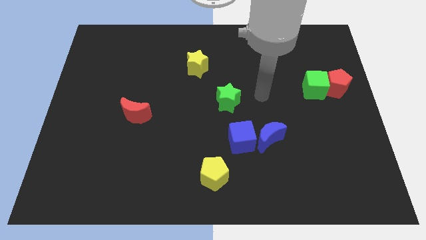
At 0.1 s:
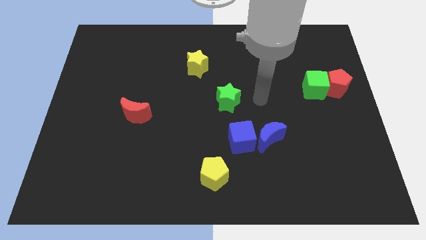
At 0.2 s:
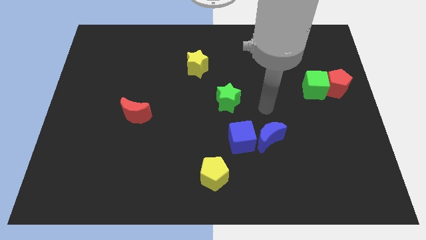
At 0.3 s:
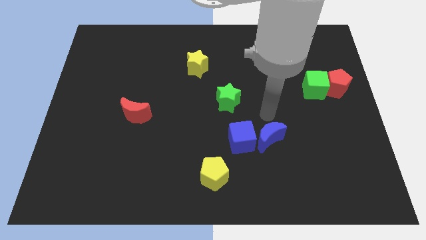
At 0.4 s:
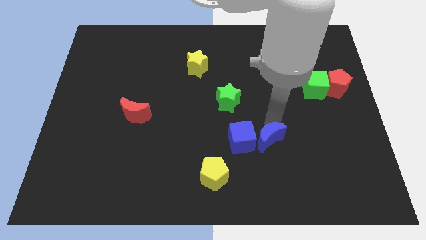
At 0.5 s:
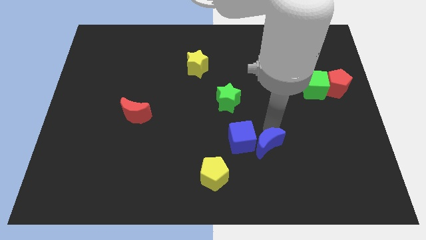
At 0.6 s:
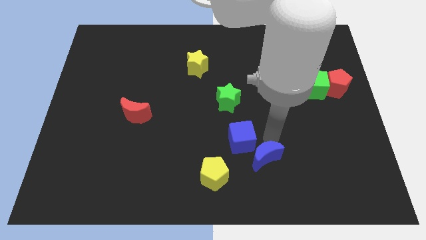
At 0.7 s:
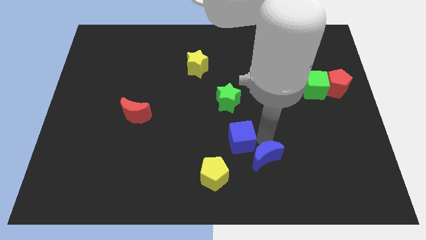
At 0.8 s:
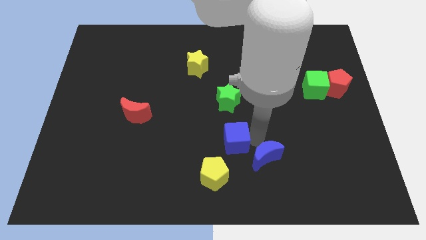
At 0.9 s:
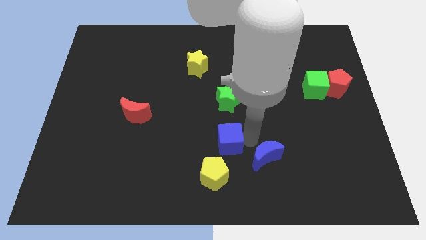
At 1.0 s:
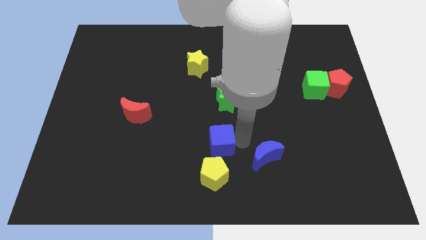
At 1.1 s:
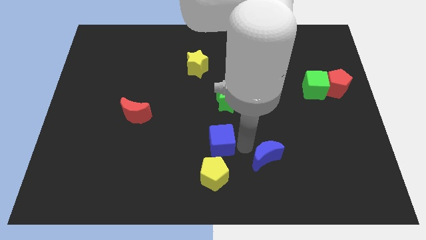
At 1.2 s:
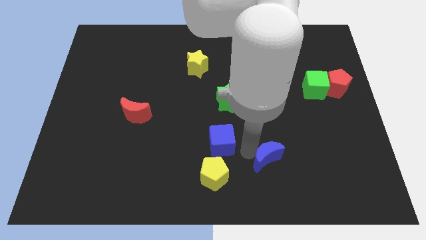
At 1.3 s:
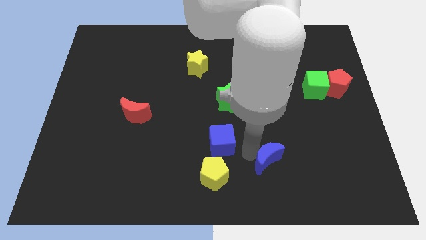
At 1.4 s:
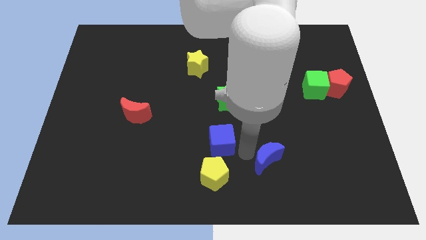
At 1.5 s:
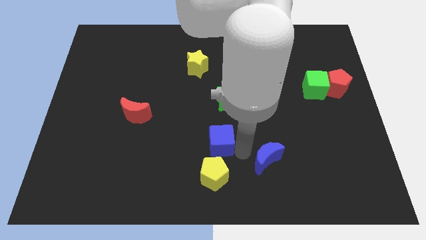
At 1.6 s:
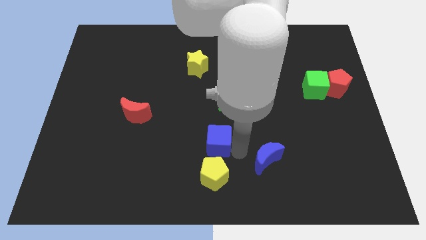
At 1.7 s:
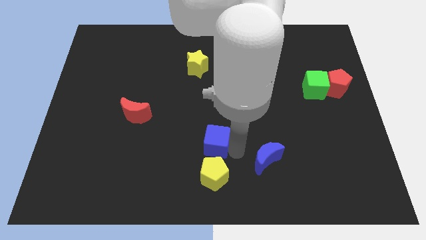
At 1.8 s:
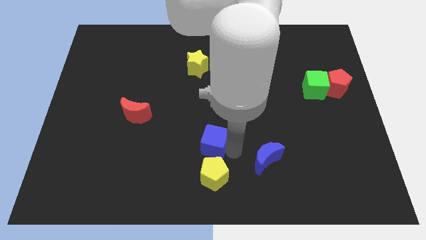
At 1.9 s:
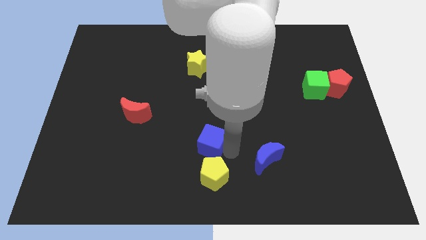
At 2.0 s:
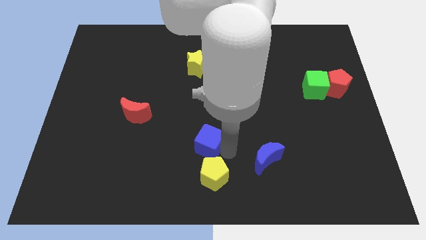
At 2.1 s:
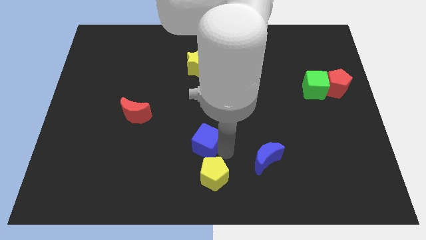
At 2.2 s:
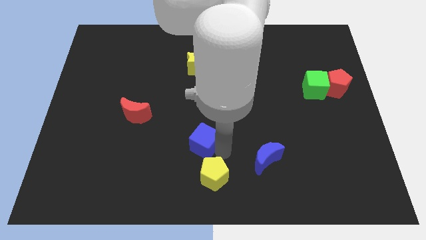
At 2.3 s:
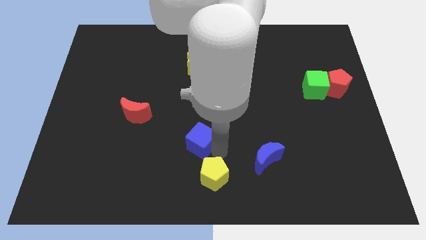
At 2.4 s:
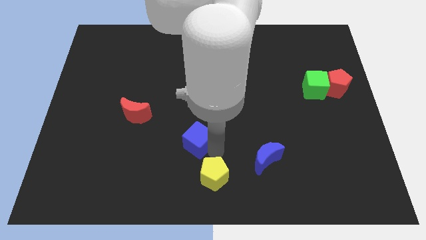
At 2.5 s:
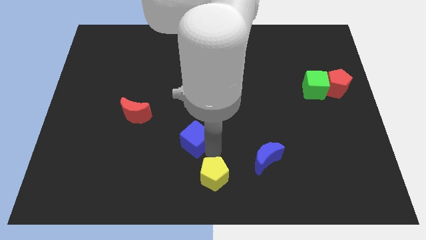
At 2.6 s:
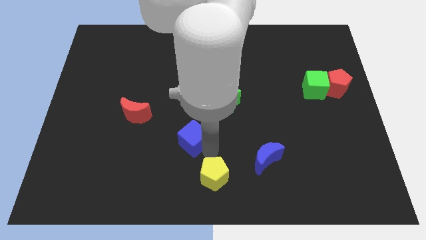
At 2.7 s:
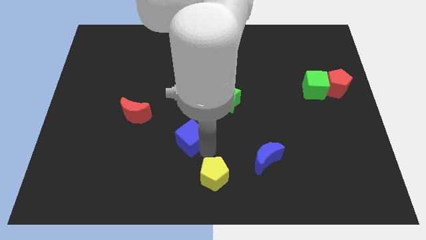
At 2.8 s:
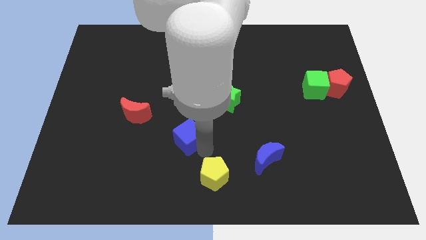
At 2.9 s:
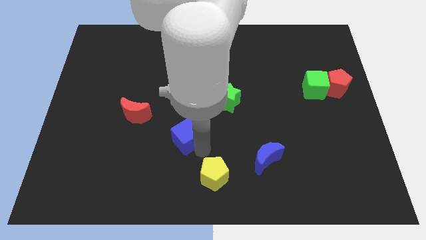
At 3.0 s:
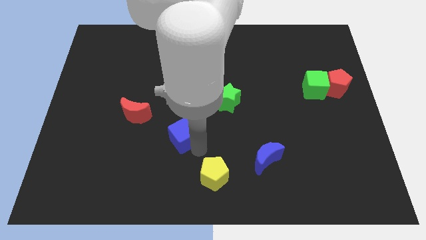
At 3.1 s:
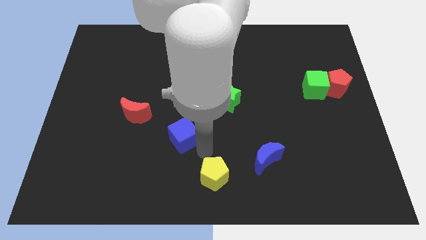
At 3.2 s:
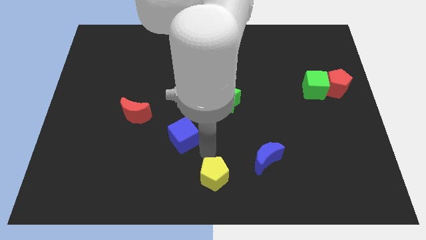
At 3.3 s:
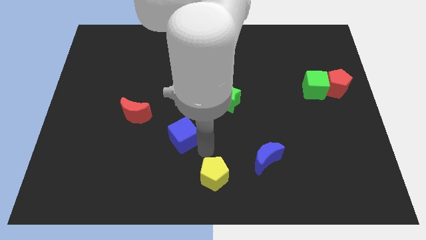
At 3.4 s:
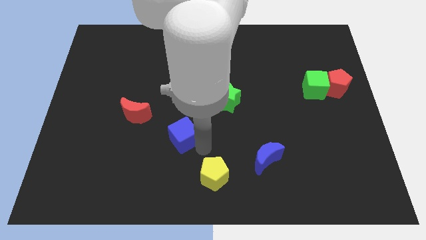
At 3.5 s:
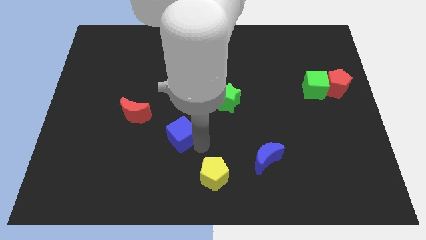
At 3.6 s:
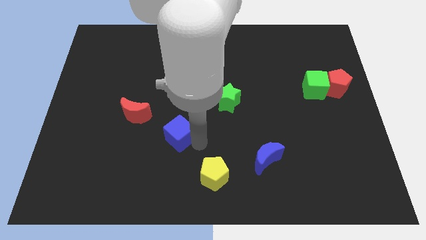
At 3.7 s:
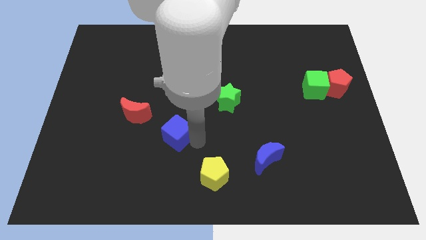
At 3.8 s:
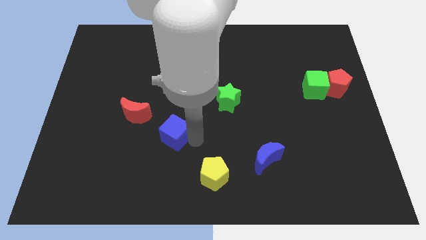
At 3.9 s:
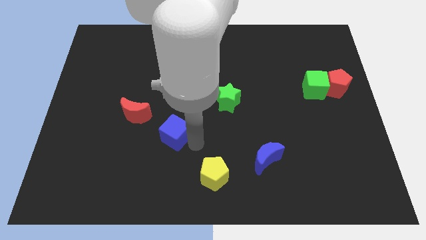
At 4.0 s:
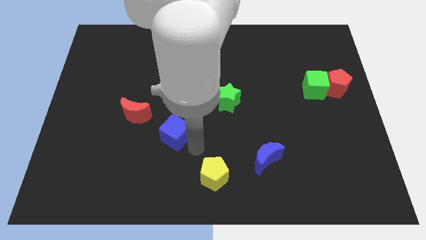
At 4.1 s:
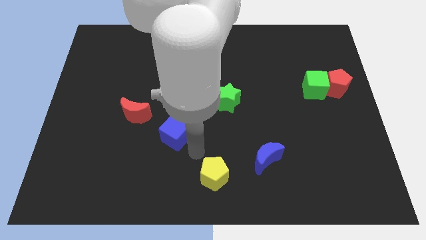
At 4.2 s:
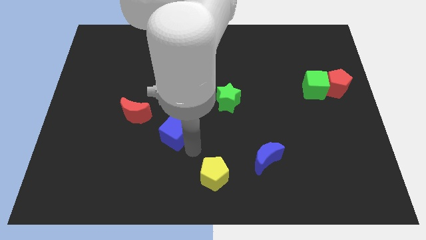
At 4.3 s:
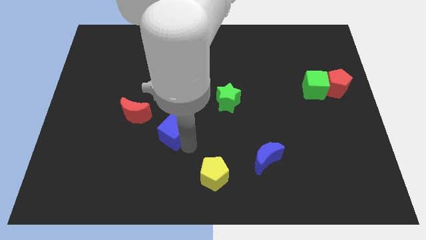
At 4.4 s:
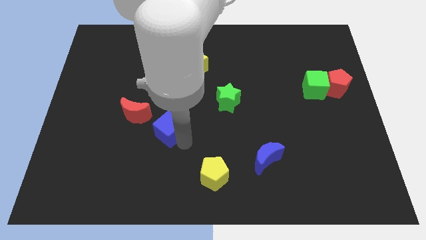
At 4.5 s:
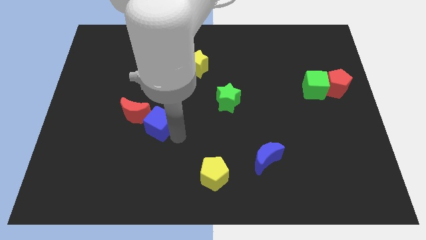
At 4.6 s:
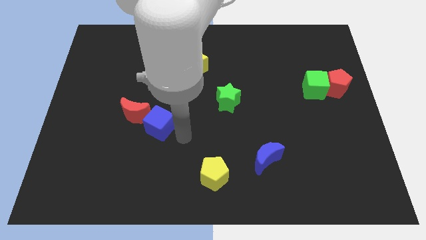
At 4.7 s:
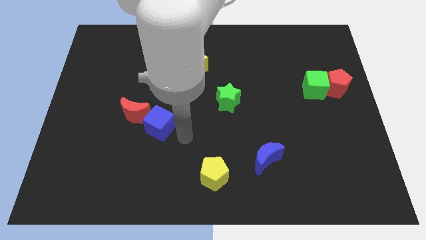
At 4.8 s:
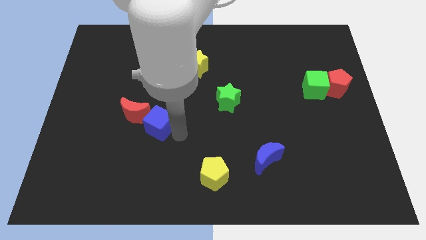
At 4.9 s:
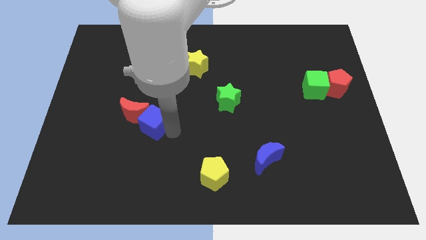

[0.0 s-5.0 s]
move the blue cube close to the red moon

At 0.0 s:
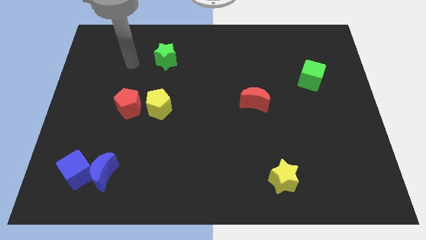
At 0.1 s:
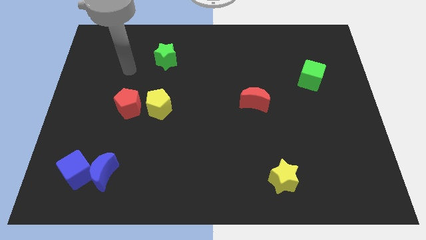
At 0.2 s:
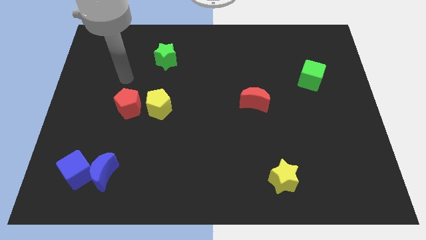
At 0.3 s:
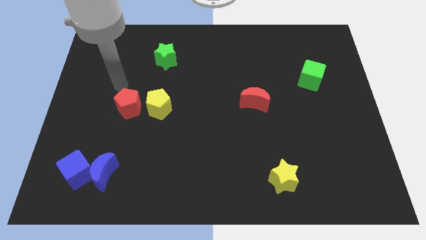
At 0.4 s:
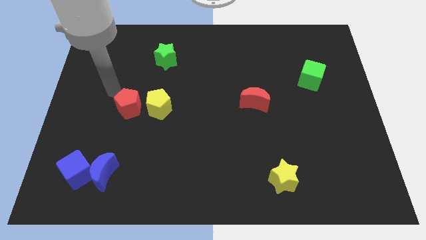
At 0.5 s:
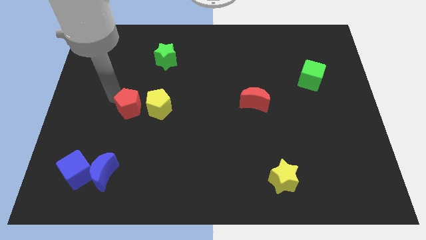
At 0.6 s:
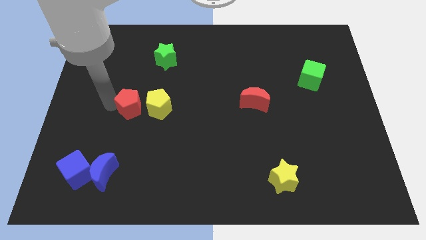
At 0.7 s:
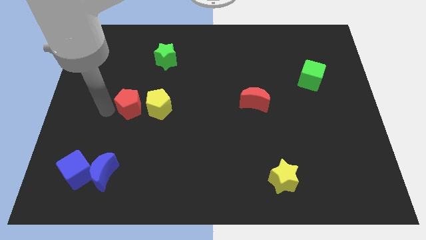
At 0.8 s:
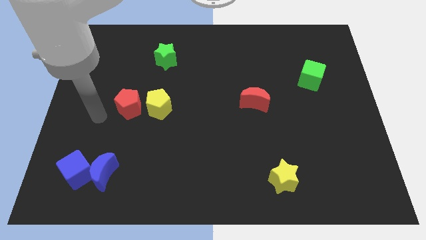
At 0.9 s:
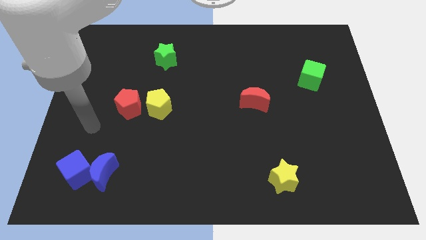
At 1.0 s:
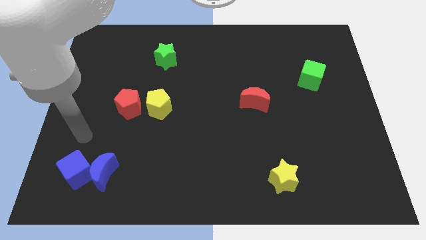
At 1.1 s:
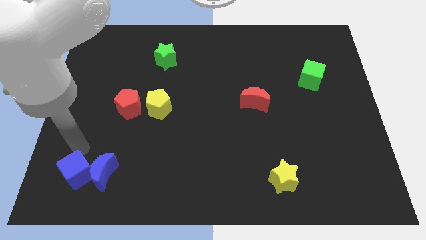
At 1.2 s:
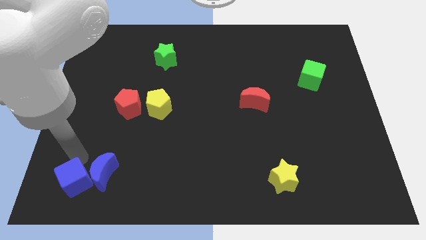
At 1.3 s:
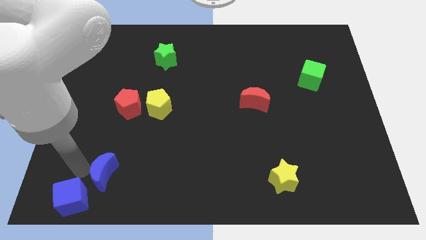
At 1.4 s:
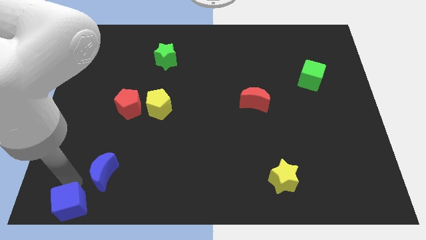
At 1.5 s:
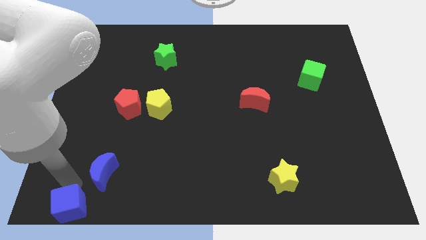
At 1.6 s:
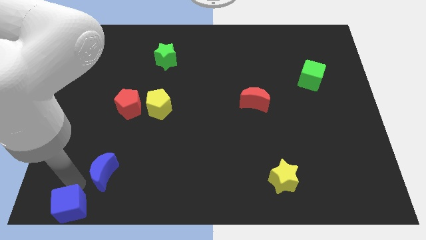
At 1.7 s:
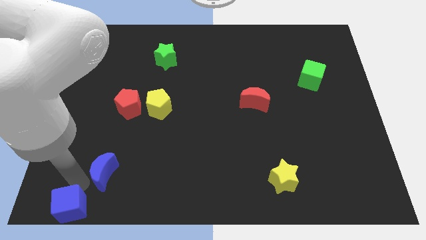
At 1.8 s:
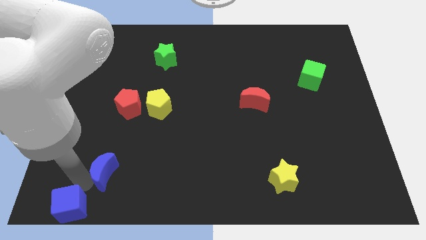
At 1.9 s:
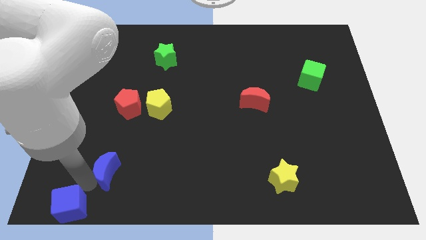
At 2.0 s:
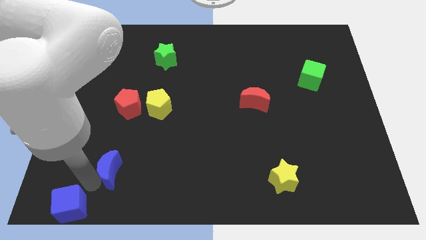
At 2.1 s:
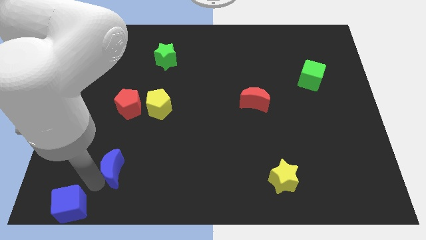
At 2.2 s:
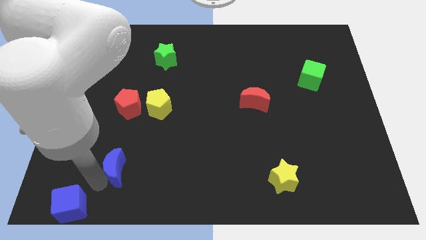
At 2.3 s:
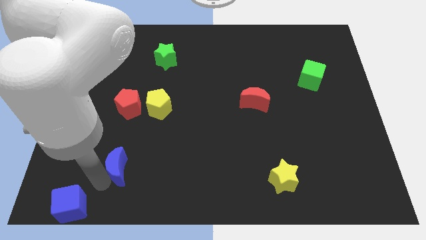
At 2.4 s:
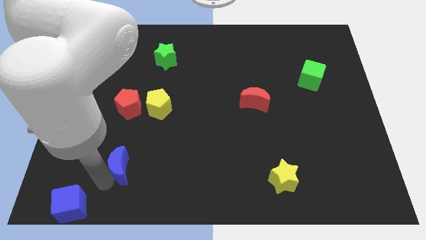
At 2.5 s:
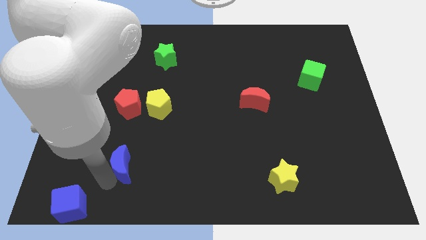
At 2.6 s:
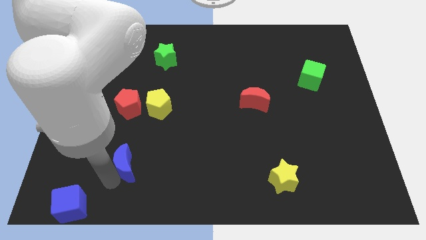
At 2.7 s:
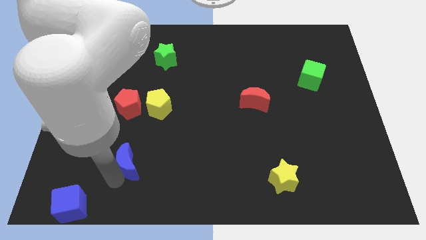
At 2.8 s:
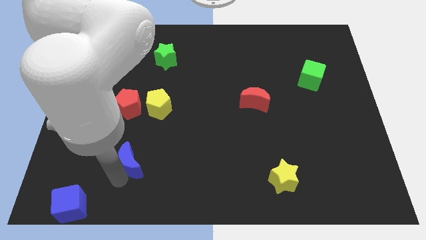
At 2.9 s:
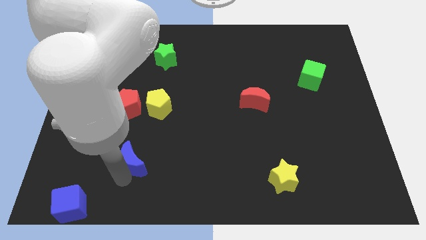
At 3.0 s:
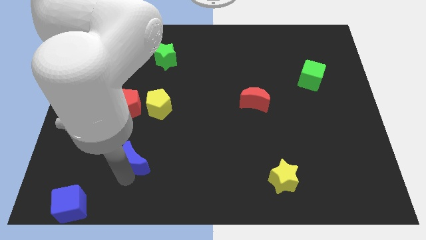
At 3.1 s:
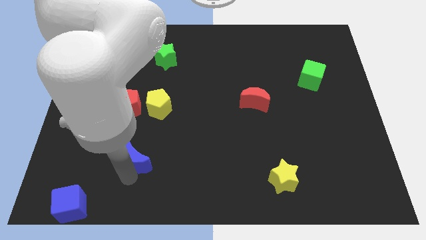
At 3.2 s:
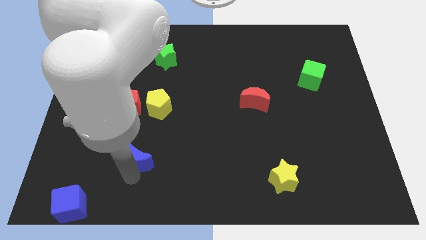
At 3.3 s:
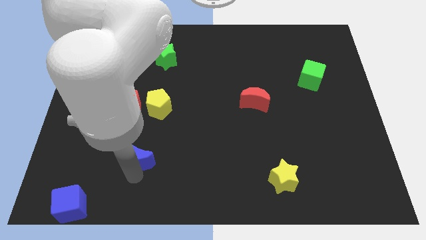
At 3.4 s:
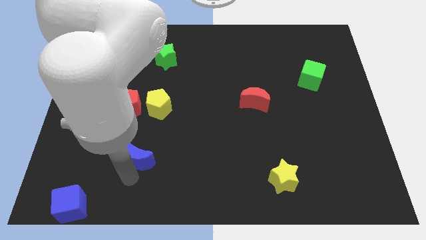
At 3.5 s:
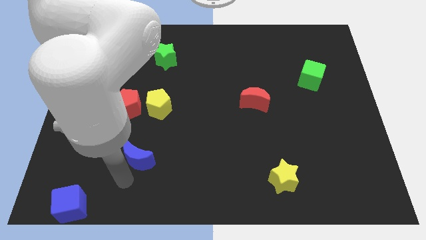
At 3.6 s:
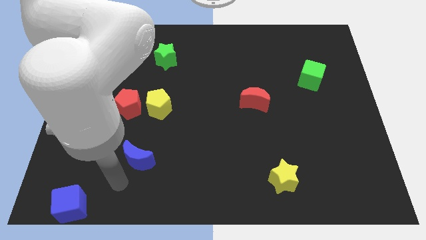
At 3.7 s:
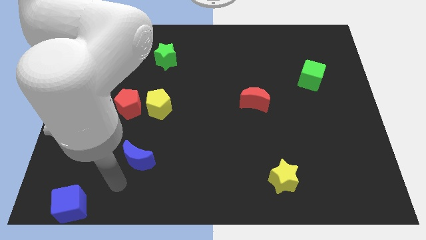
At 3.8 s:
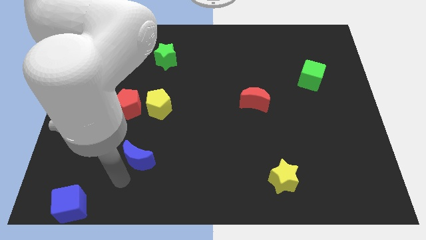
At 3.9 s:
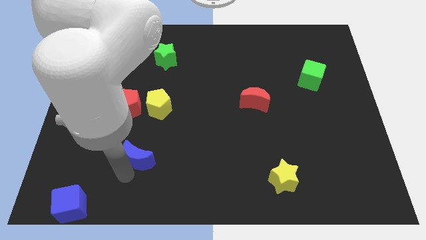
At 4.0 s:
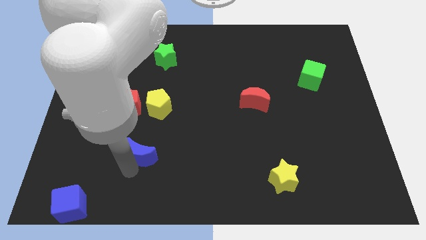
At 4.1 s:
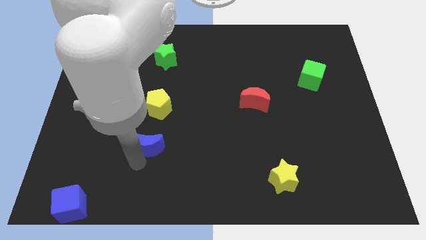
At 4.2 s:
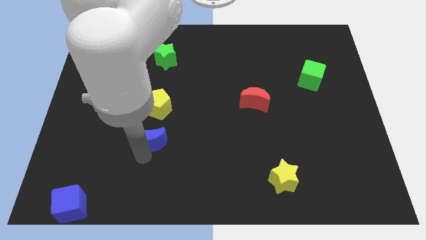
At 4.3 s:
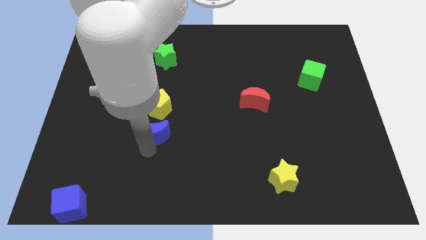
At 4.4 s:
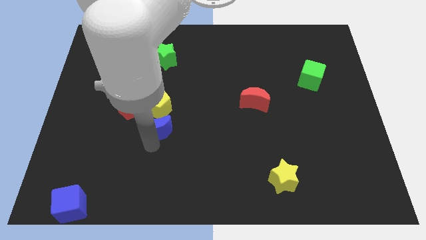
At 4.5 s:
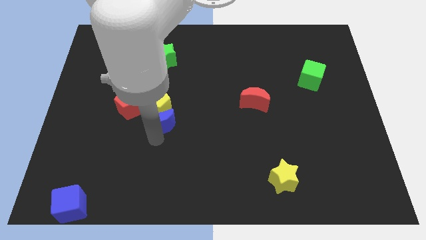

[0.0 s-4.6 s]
push the blue moon next to the yellow pentagon
